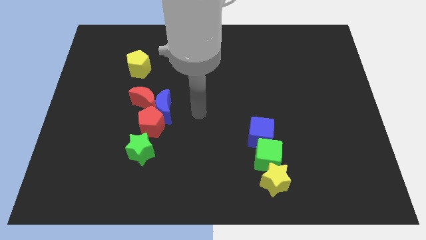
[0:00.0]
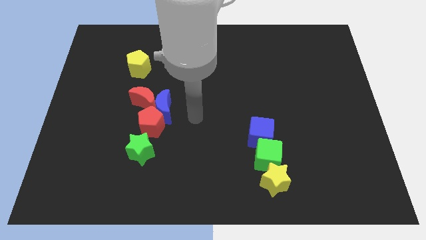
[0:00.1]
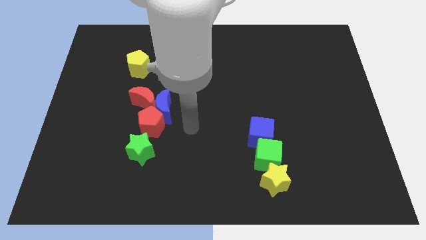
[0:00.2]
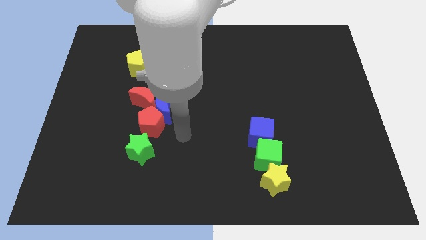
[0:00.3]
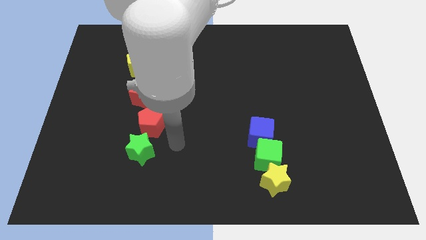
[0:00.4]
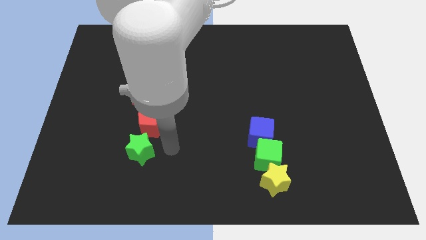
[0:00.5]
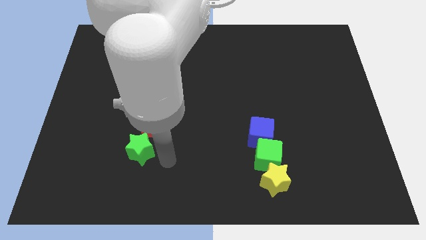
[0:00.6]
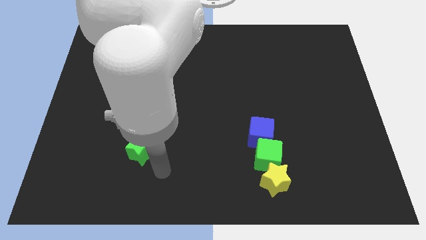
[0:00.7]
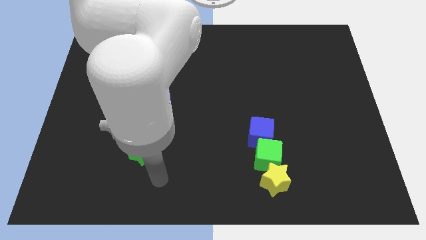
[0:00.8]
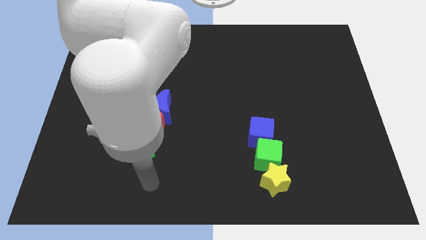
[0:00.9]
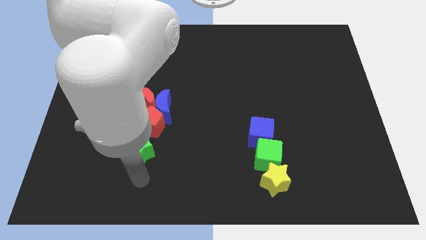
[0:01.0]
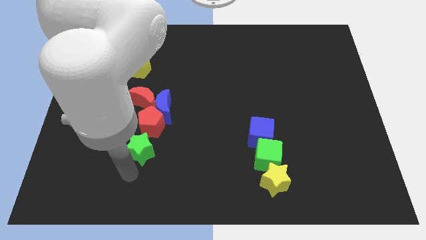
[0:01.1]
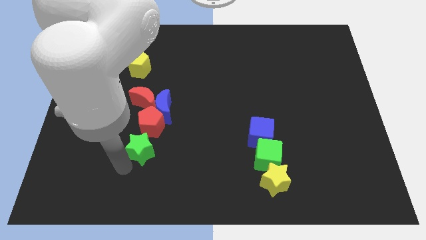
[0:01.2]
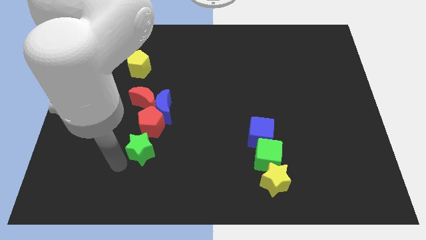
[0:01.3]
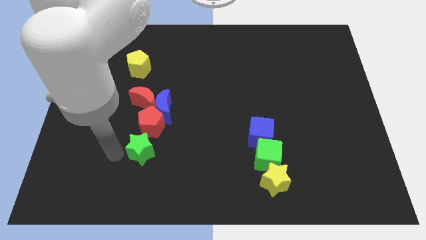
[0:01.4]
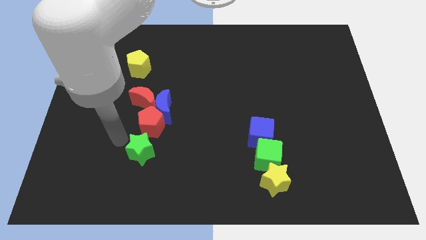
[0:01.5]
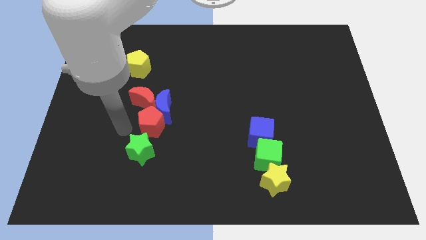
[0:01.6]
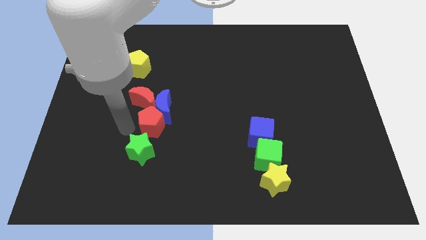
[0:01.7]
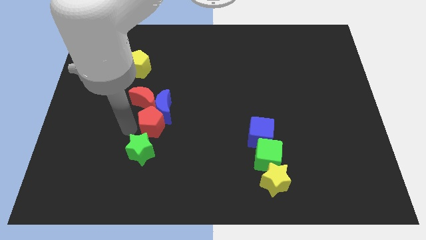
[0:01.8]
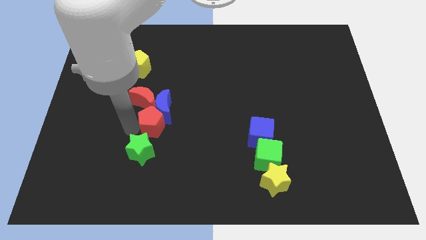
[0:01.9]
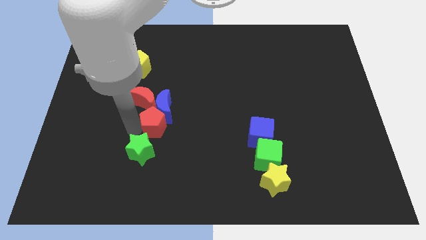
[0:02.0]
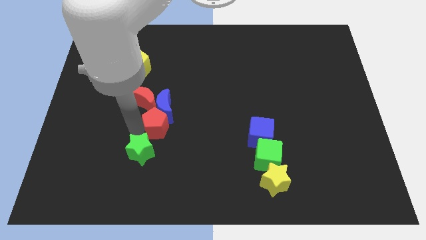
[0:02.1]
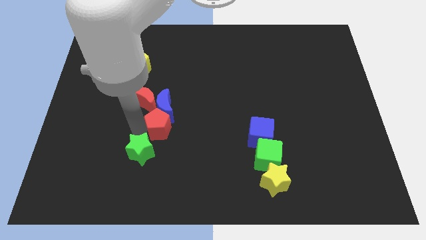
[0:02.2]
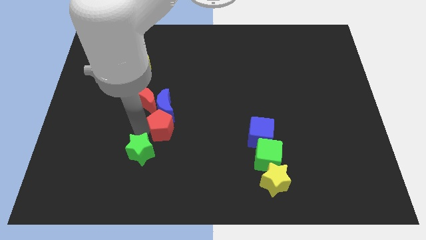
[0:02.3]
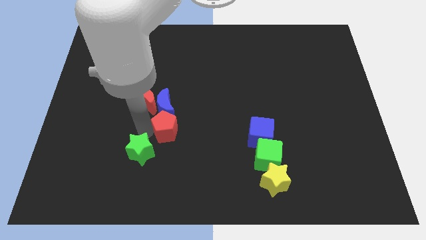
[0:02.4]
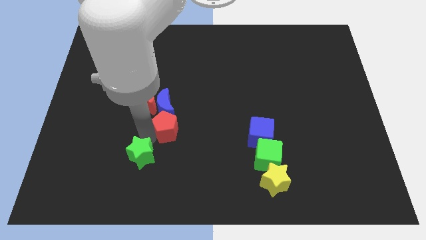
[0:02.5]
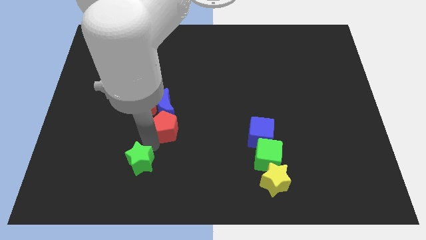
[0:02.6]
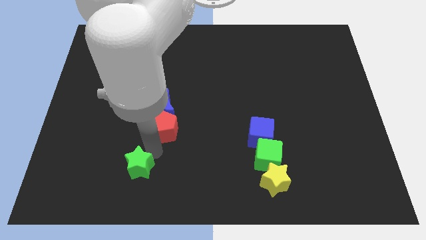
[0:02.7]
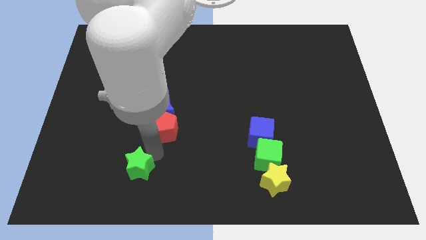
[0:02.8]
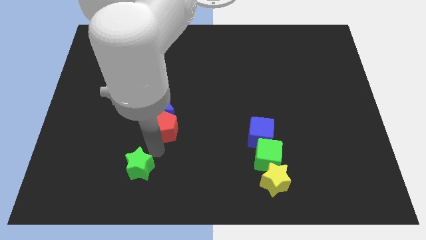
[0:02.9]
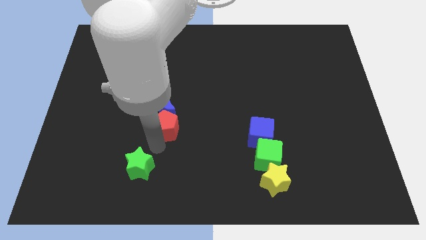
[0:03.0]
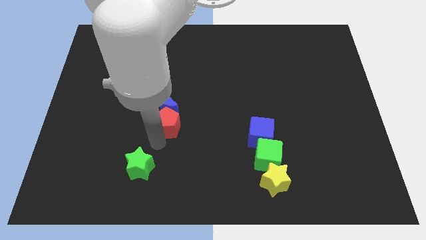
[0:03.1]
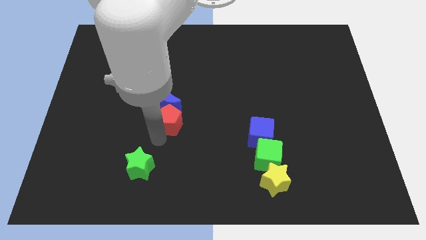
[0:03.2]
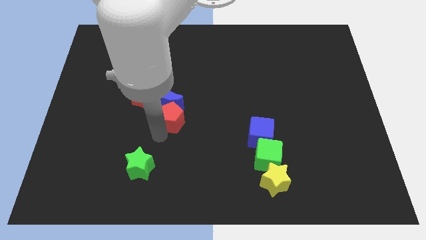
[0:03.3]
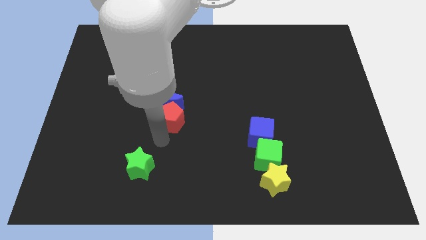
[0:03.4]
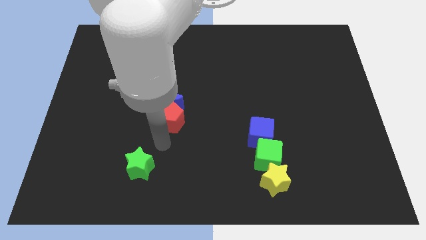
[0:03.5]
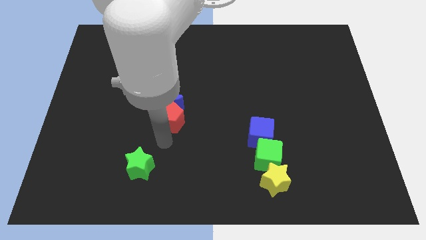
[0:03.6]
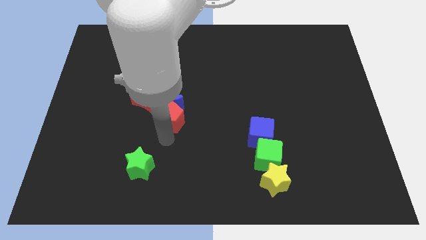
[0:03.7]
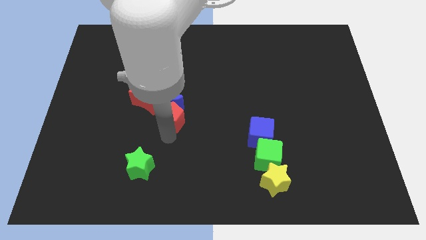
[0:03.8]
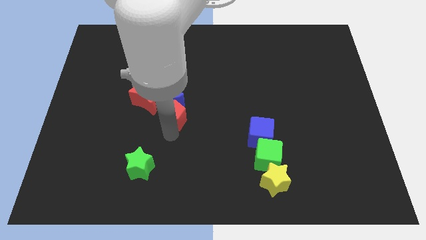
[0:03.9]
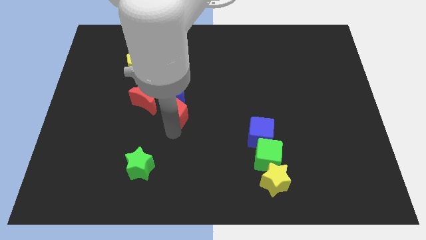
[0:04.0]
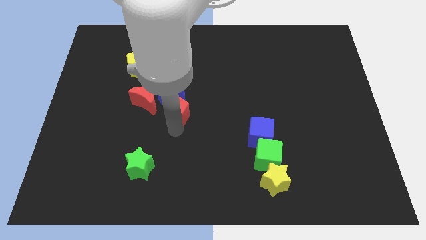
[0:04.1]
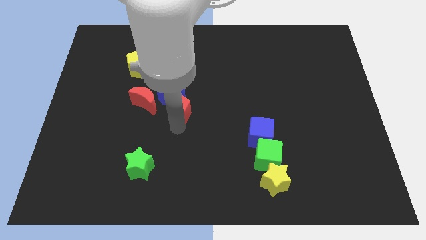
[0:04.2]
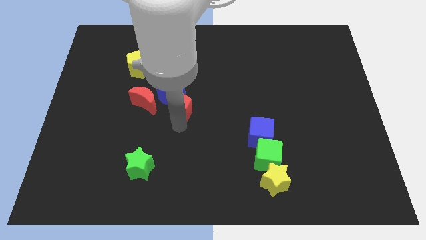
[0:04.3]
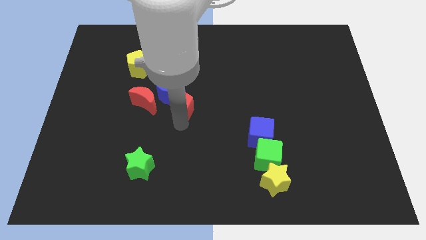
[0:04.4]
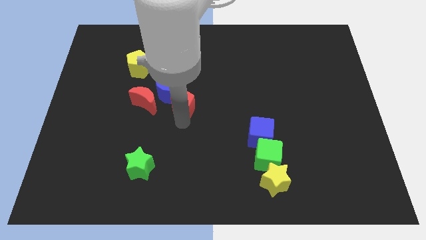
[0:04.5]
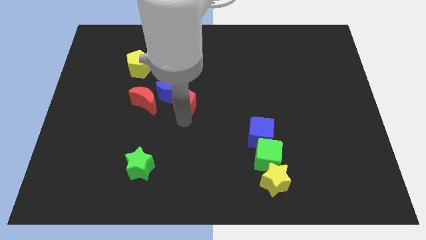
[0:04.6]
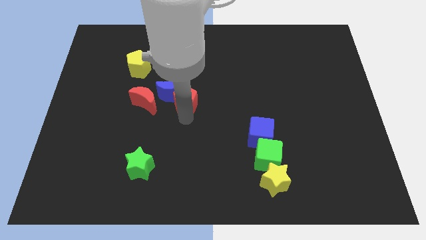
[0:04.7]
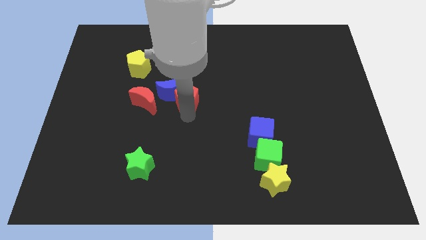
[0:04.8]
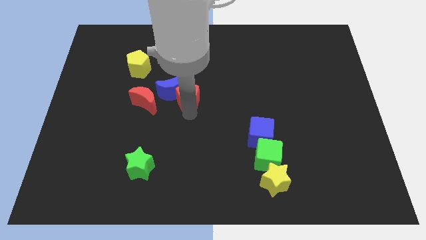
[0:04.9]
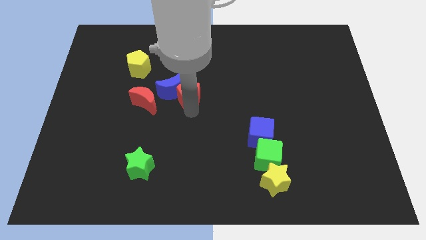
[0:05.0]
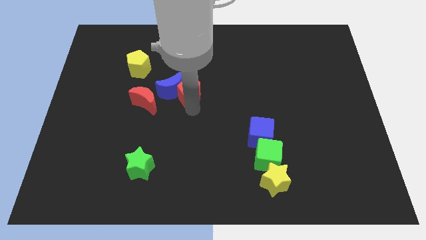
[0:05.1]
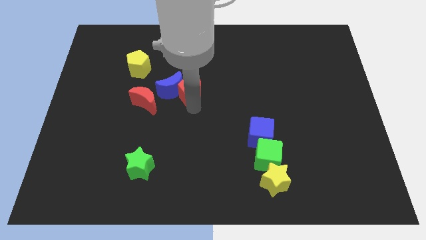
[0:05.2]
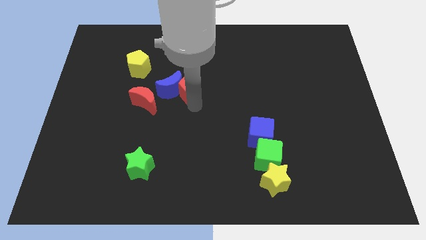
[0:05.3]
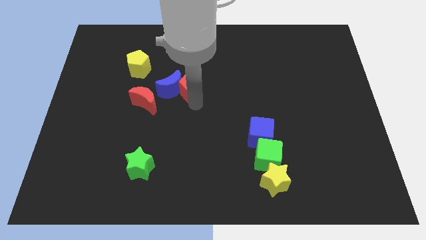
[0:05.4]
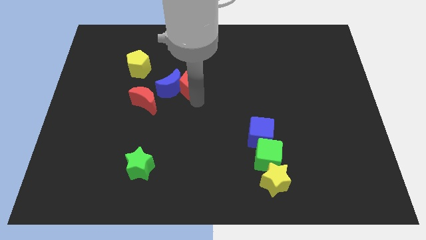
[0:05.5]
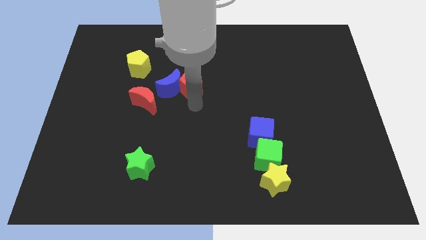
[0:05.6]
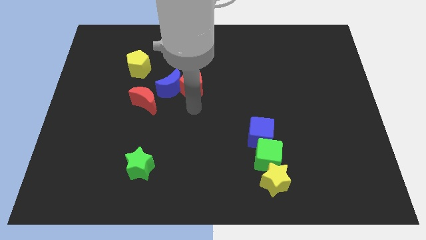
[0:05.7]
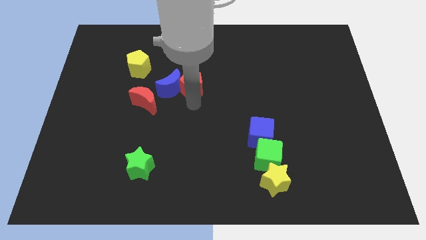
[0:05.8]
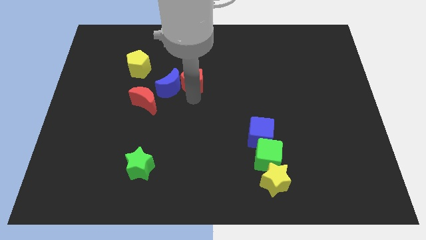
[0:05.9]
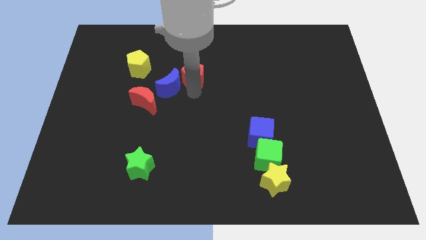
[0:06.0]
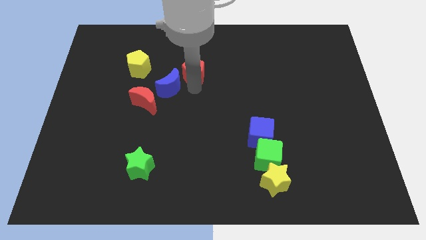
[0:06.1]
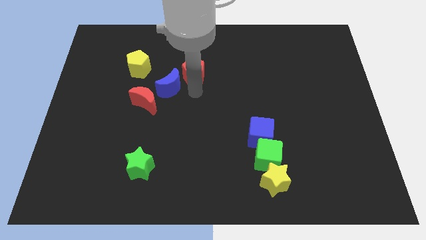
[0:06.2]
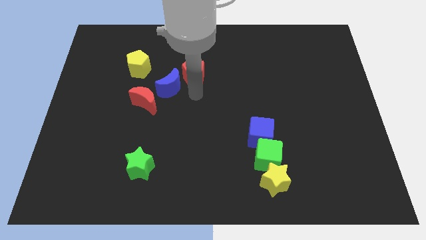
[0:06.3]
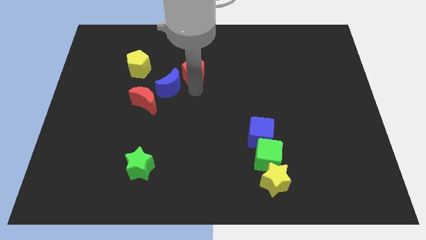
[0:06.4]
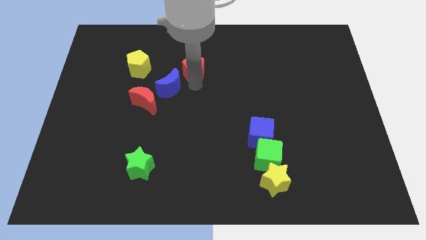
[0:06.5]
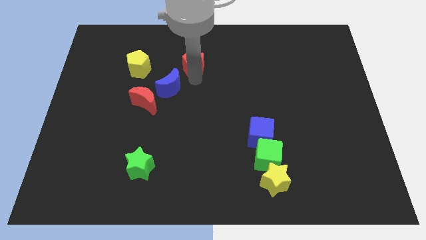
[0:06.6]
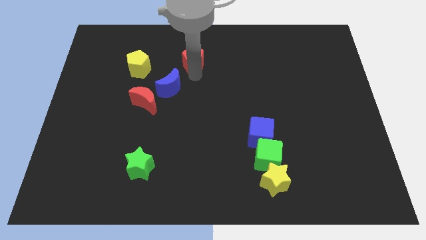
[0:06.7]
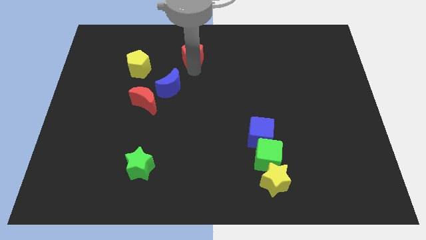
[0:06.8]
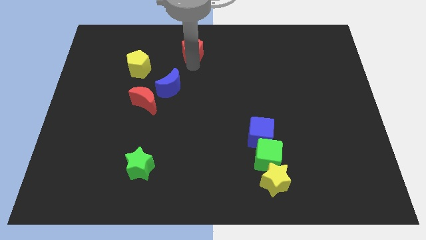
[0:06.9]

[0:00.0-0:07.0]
put the red pentagon to the towards your base
